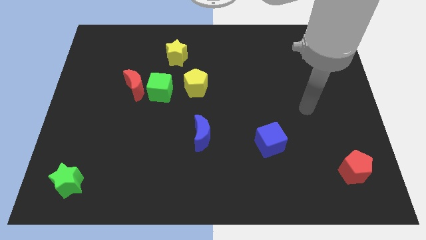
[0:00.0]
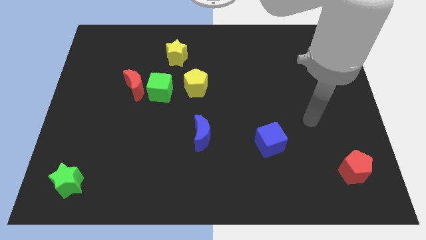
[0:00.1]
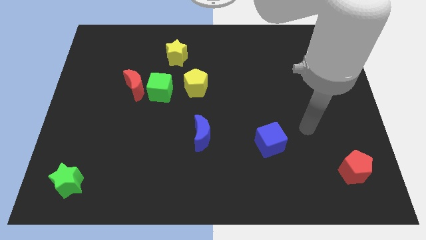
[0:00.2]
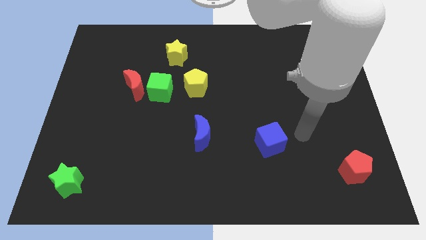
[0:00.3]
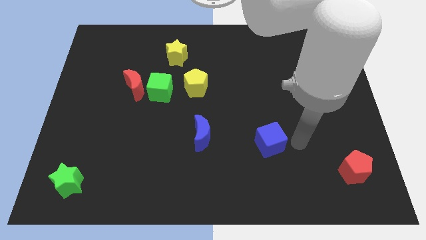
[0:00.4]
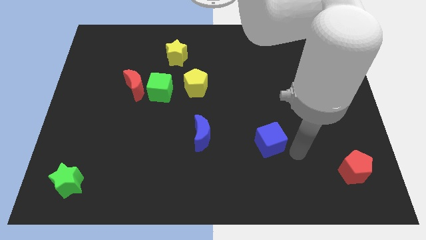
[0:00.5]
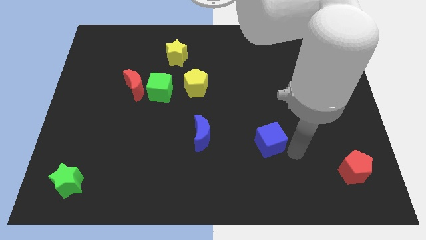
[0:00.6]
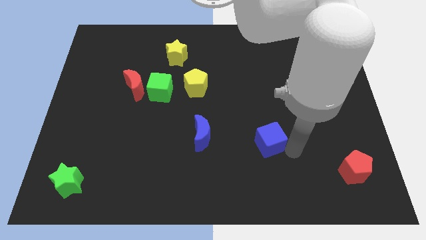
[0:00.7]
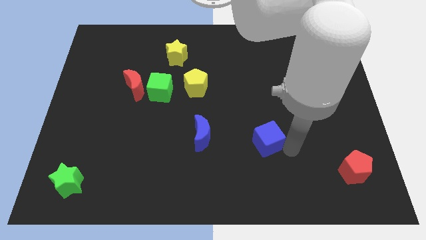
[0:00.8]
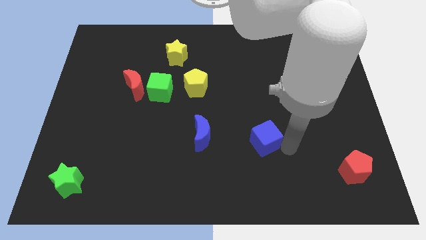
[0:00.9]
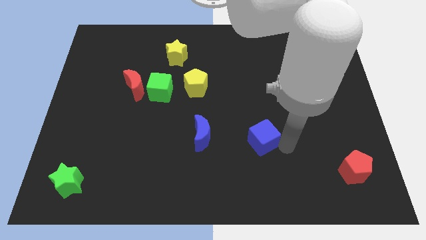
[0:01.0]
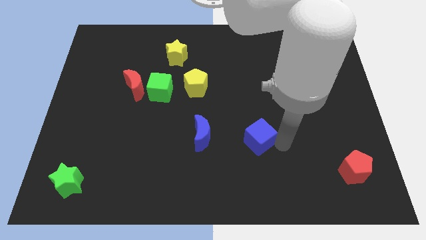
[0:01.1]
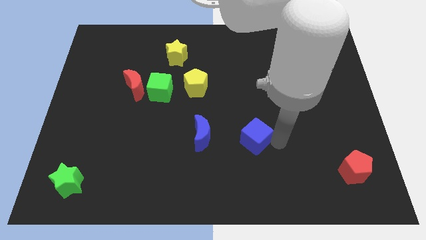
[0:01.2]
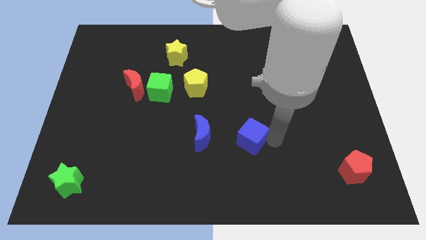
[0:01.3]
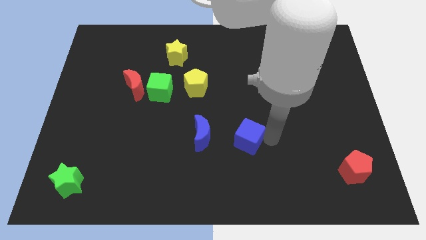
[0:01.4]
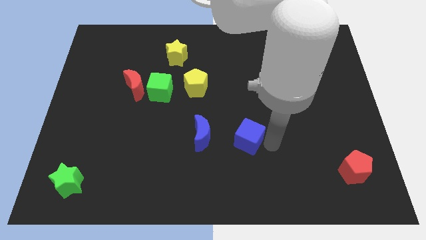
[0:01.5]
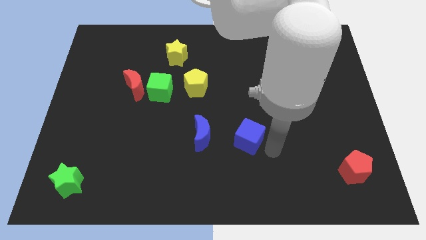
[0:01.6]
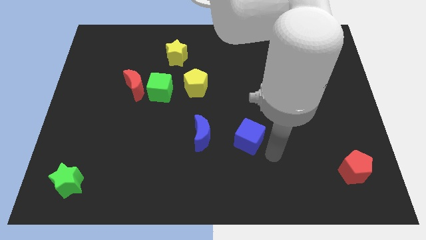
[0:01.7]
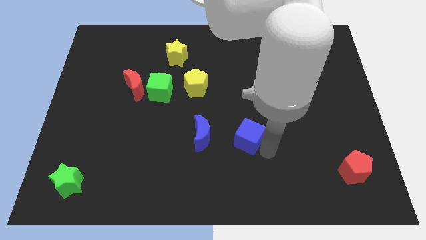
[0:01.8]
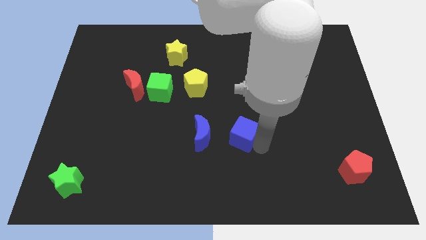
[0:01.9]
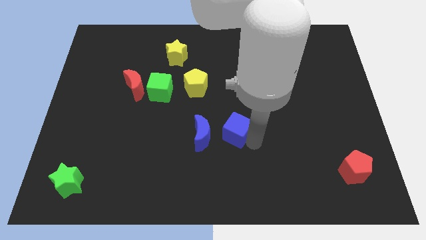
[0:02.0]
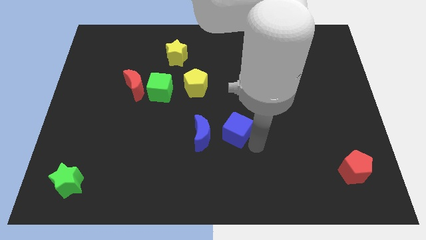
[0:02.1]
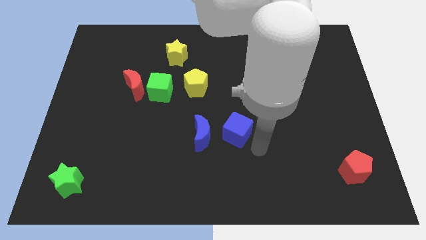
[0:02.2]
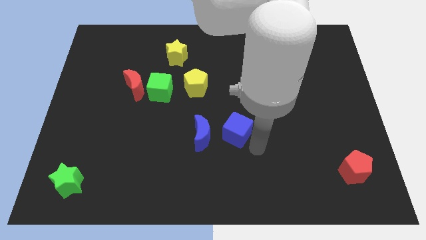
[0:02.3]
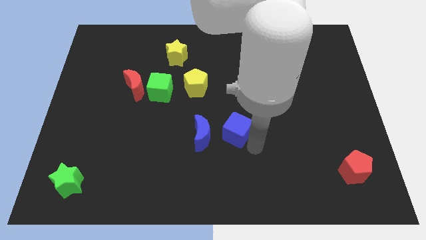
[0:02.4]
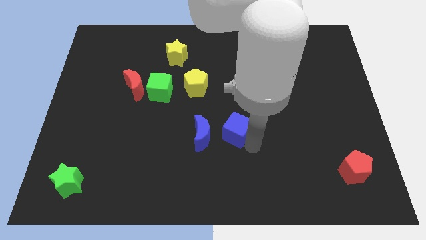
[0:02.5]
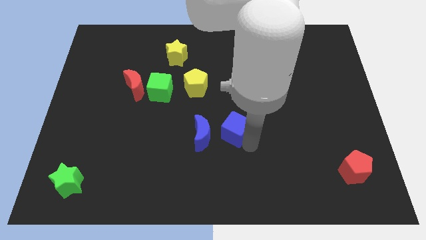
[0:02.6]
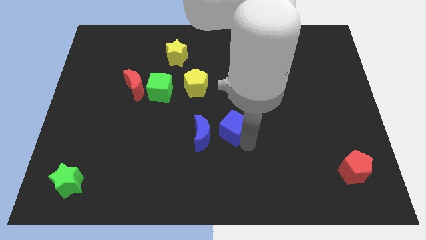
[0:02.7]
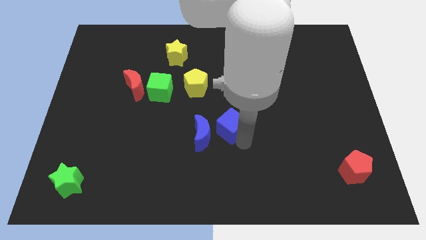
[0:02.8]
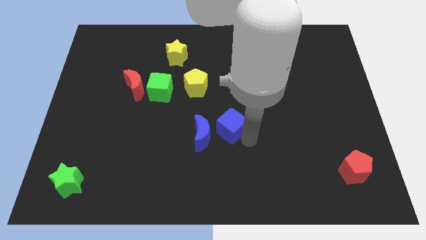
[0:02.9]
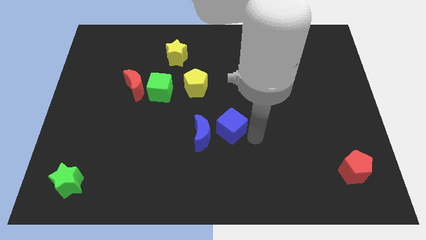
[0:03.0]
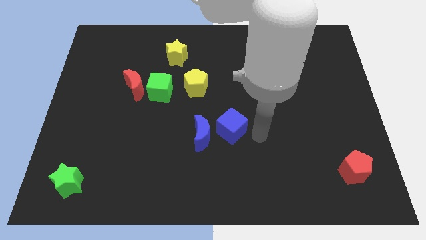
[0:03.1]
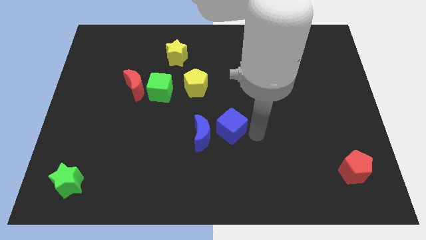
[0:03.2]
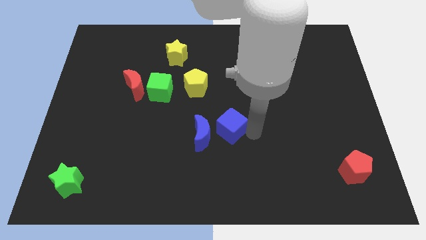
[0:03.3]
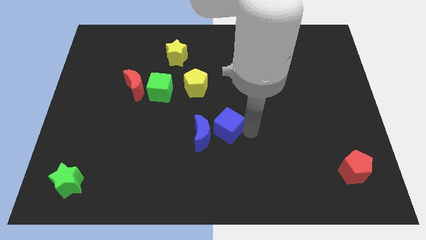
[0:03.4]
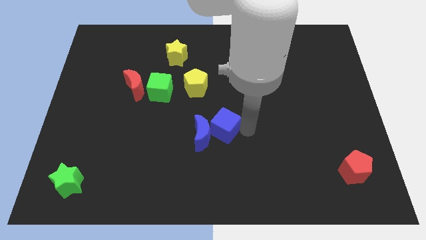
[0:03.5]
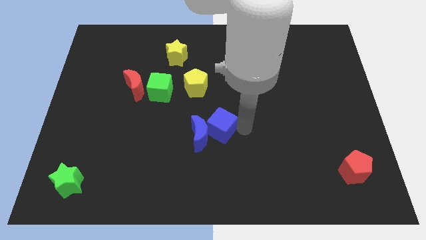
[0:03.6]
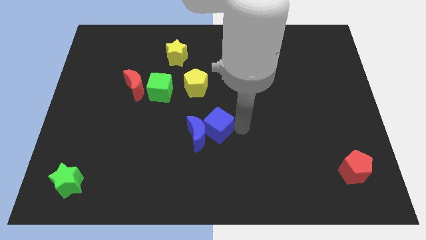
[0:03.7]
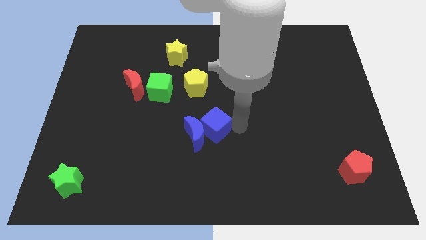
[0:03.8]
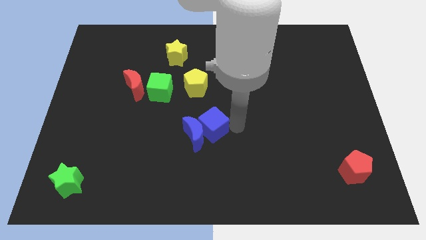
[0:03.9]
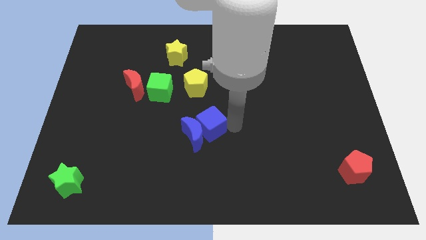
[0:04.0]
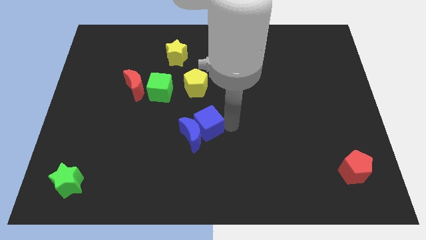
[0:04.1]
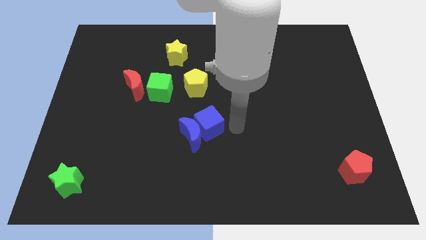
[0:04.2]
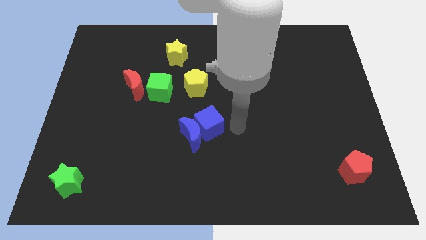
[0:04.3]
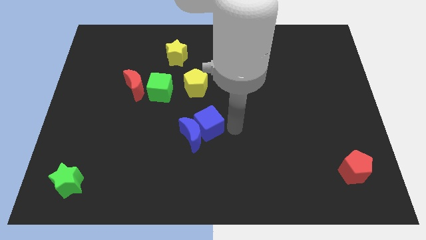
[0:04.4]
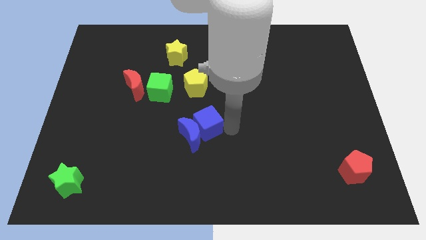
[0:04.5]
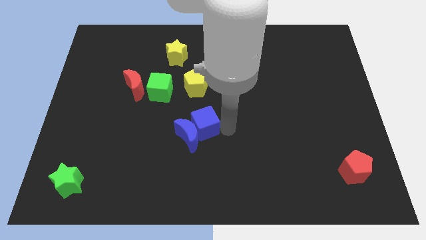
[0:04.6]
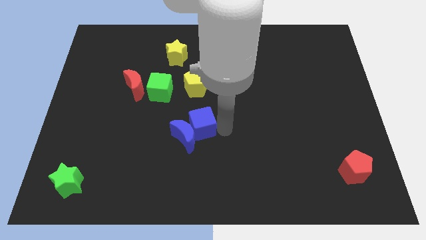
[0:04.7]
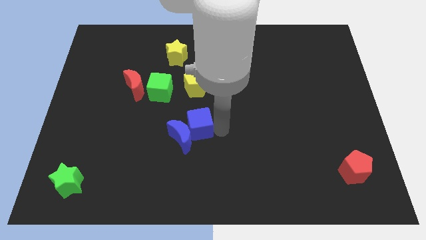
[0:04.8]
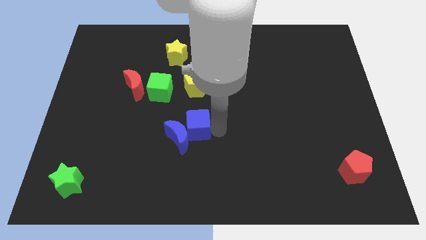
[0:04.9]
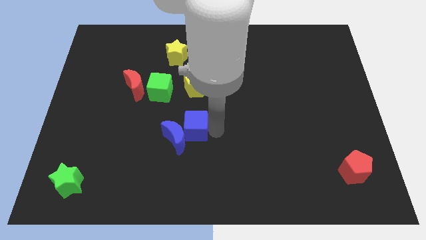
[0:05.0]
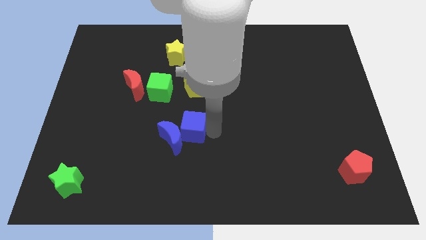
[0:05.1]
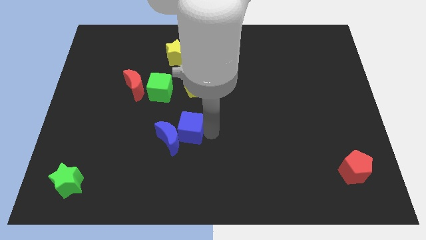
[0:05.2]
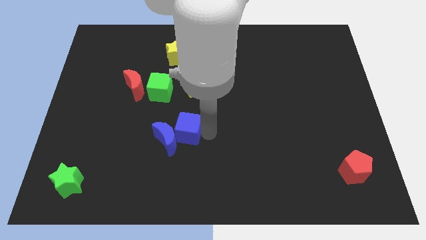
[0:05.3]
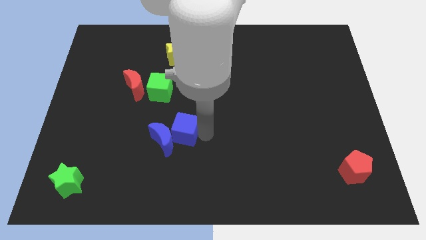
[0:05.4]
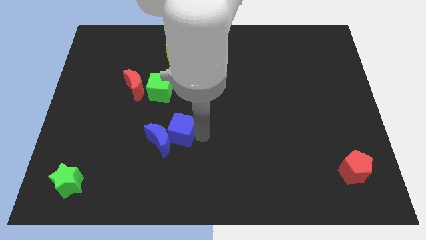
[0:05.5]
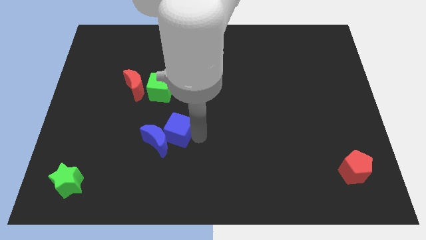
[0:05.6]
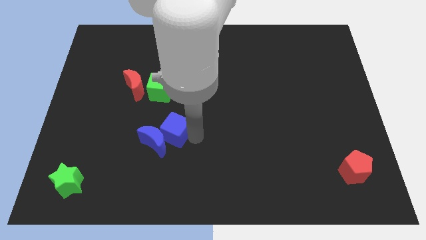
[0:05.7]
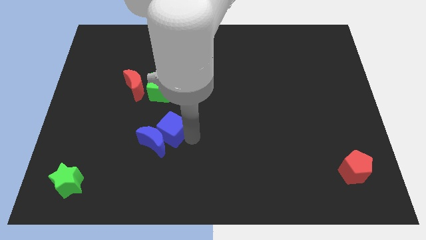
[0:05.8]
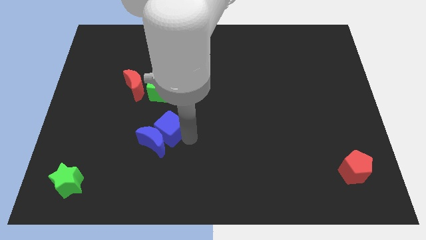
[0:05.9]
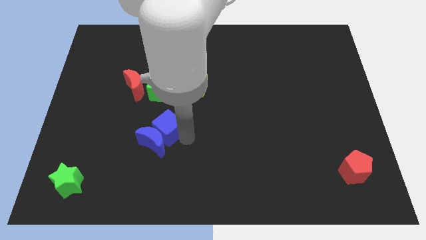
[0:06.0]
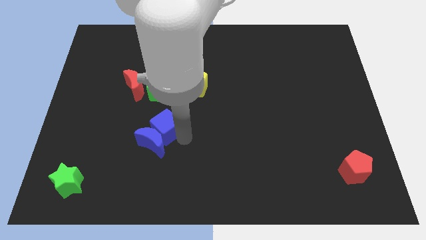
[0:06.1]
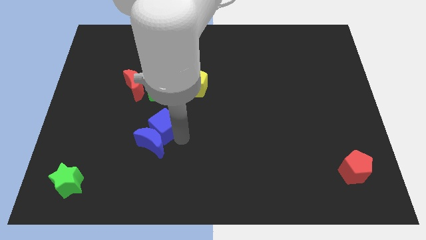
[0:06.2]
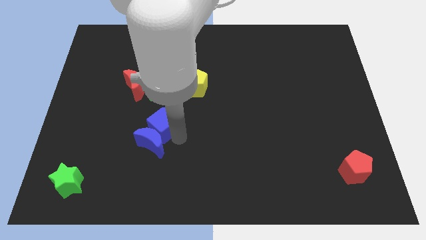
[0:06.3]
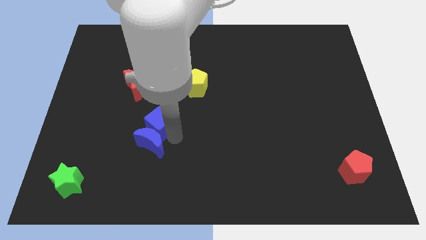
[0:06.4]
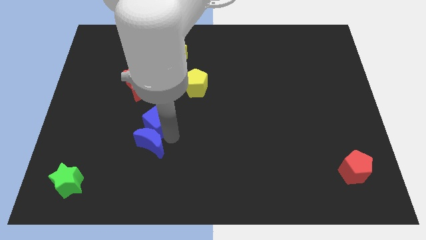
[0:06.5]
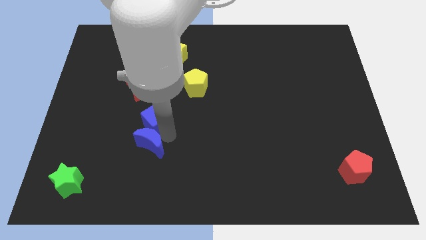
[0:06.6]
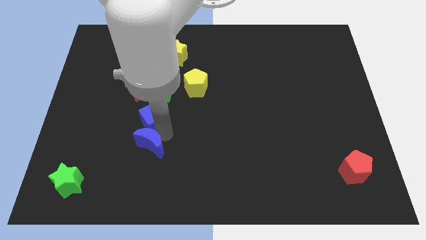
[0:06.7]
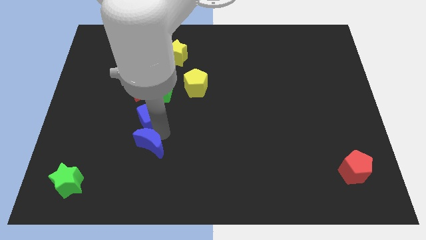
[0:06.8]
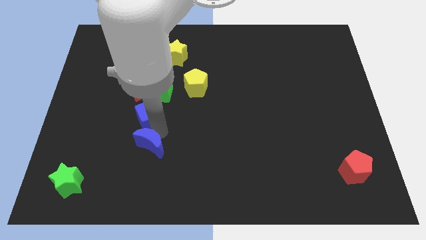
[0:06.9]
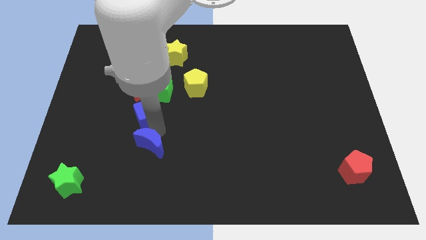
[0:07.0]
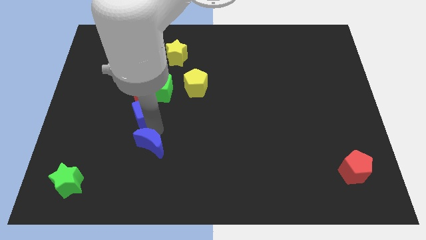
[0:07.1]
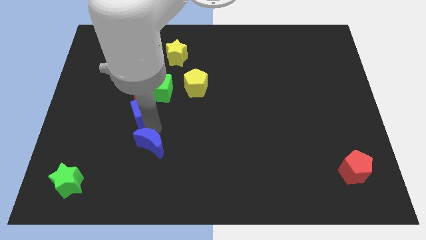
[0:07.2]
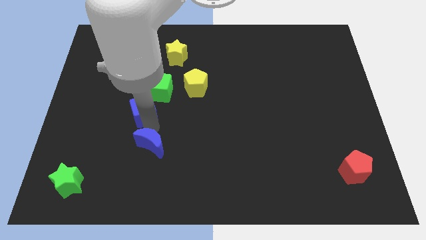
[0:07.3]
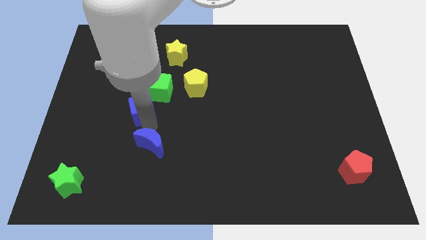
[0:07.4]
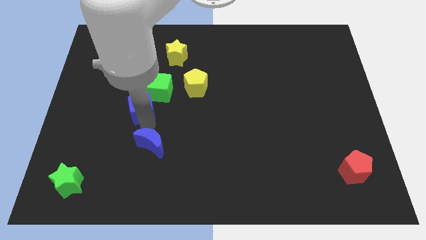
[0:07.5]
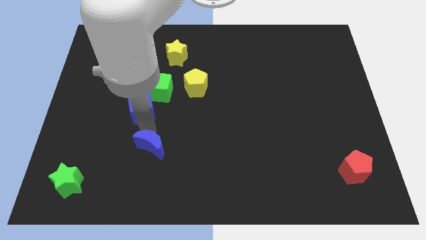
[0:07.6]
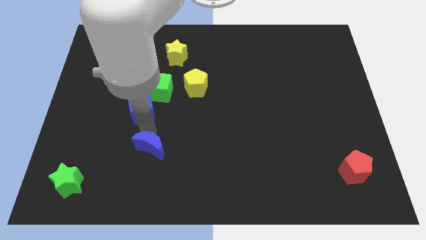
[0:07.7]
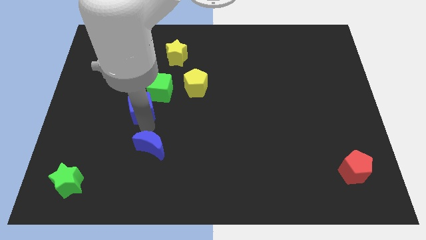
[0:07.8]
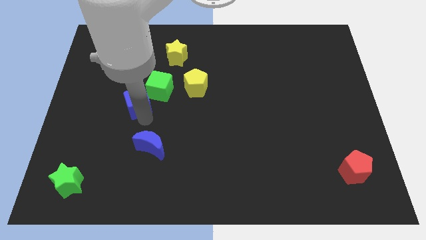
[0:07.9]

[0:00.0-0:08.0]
push the blue cube next to the red moon
